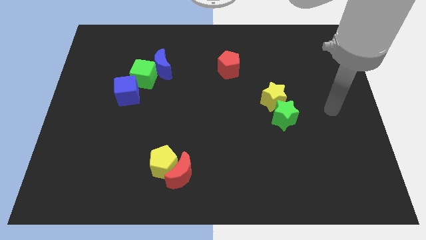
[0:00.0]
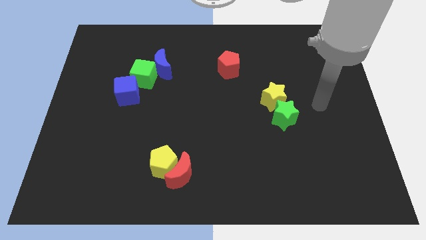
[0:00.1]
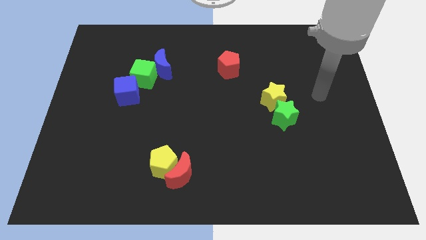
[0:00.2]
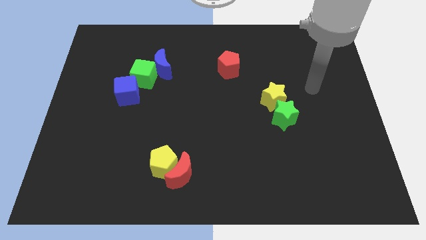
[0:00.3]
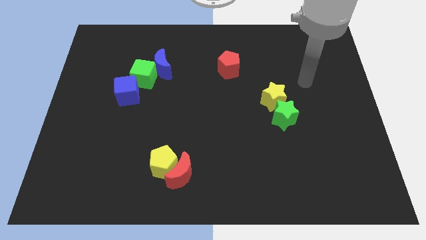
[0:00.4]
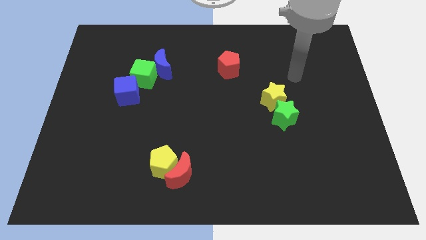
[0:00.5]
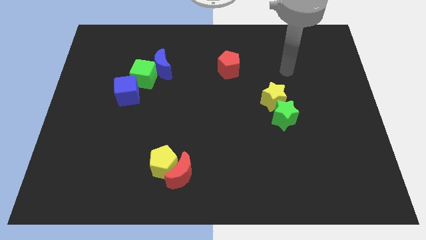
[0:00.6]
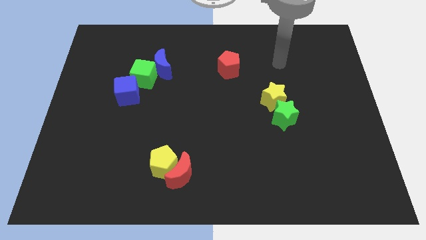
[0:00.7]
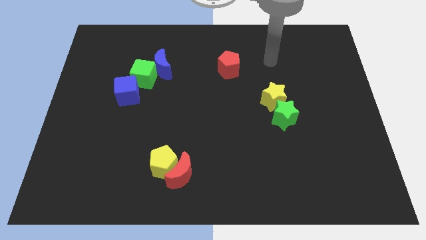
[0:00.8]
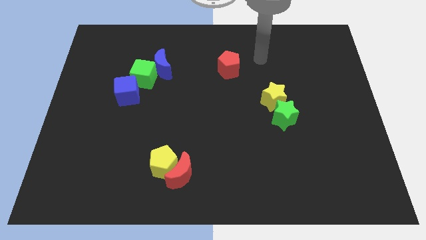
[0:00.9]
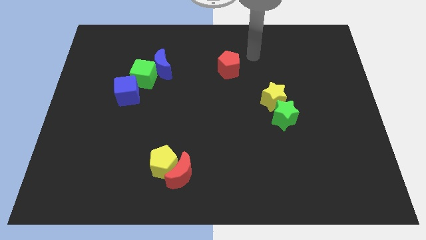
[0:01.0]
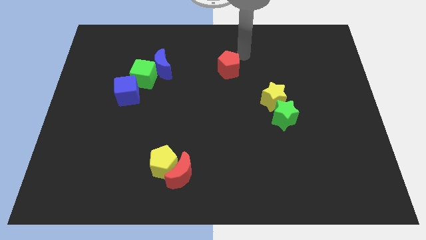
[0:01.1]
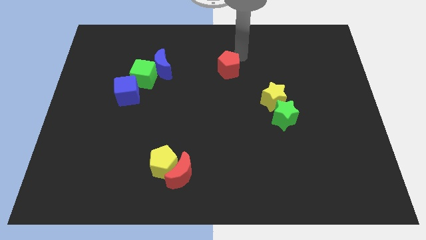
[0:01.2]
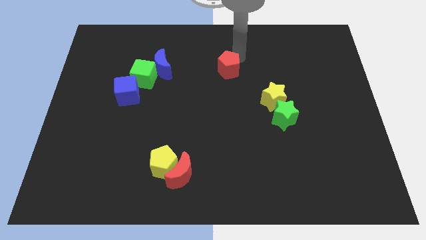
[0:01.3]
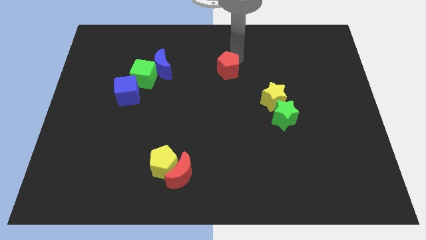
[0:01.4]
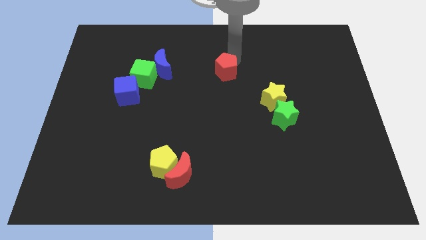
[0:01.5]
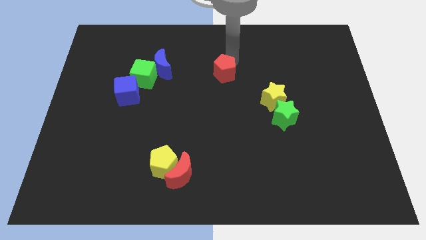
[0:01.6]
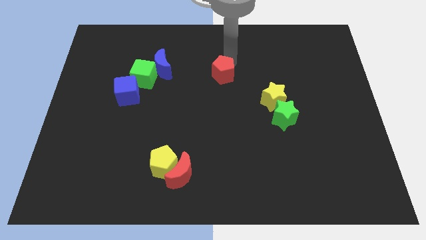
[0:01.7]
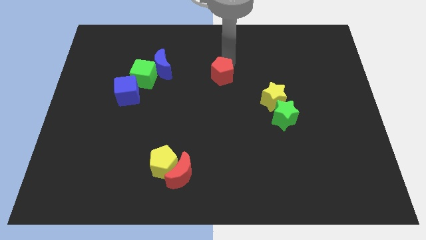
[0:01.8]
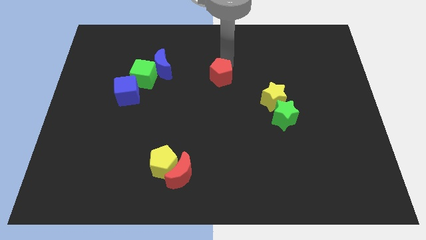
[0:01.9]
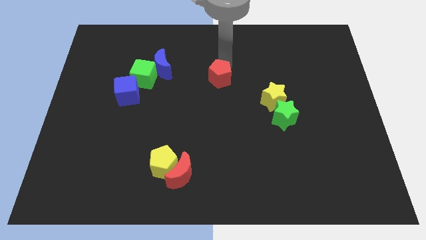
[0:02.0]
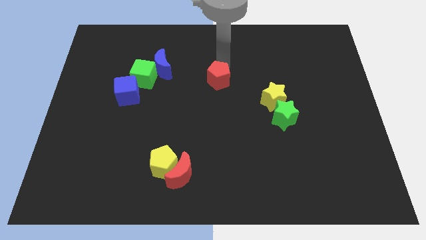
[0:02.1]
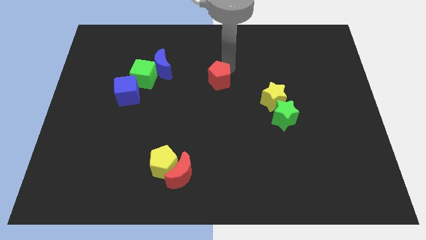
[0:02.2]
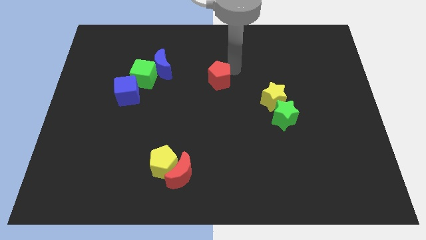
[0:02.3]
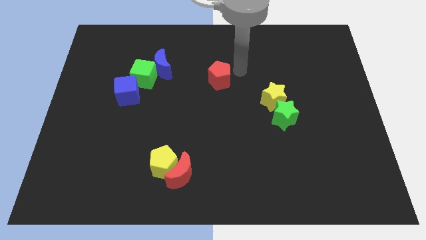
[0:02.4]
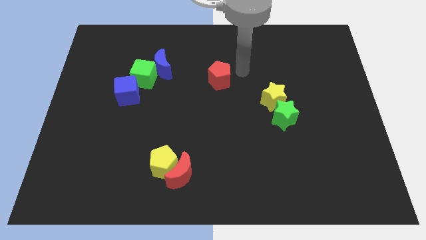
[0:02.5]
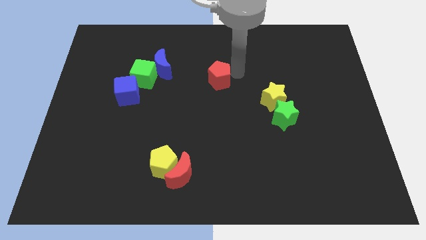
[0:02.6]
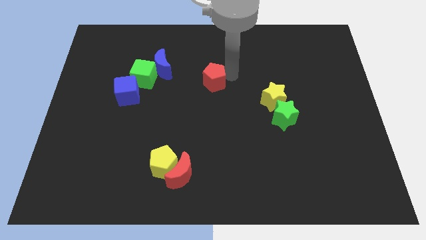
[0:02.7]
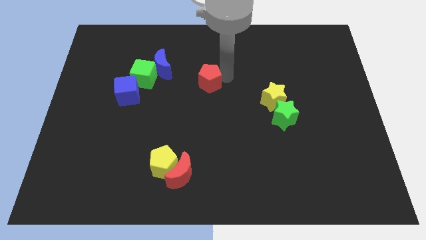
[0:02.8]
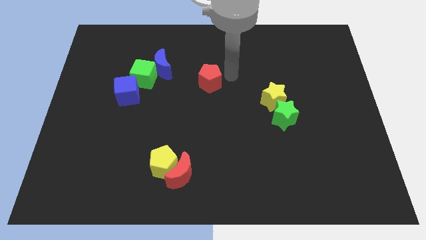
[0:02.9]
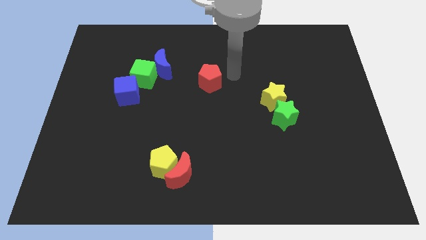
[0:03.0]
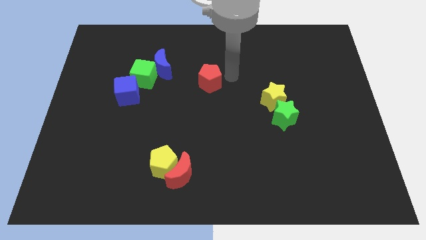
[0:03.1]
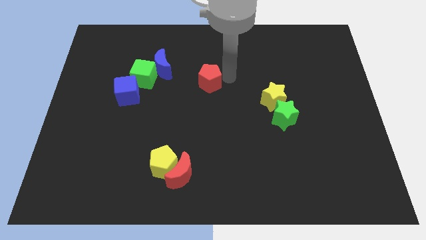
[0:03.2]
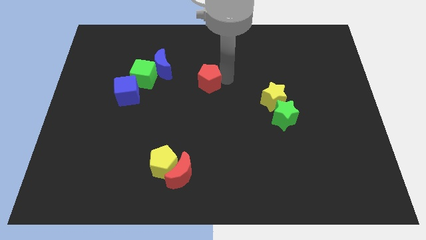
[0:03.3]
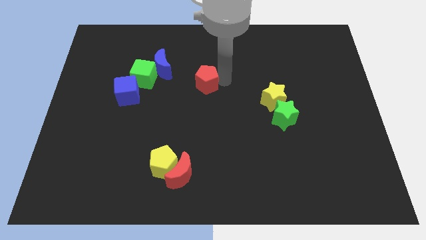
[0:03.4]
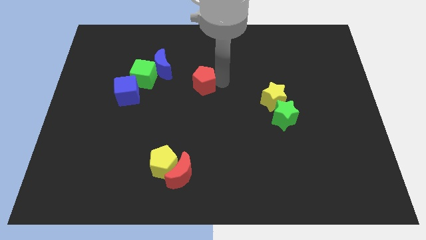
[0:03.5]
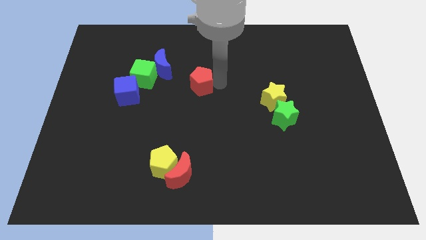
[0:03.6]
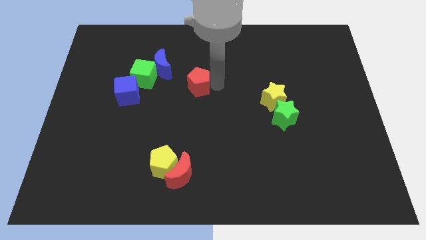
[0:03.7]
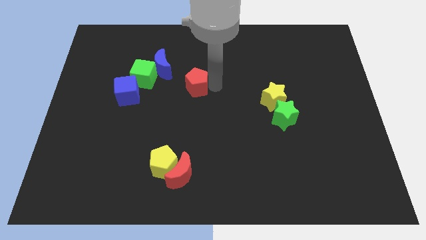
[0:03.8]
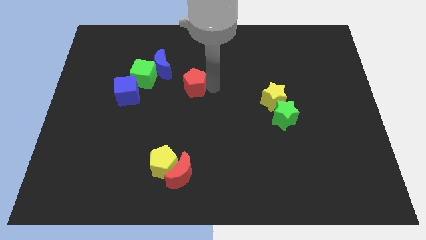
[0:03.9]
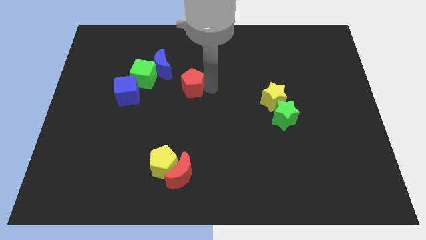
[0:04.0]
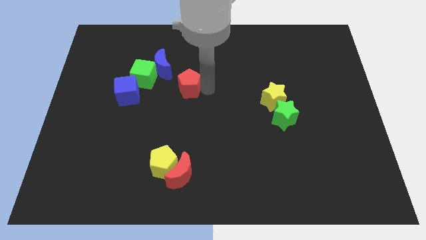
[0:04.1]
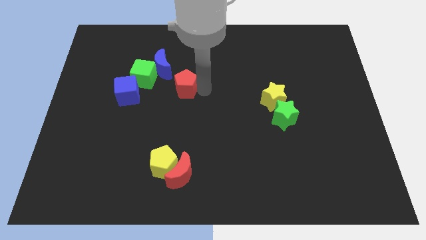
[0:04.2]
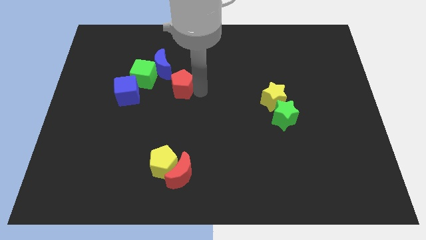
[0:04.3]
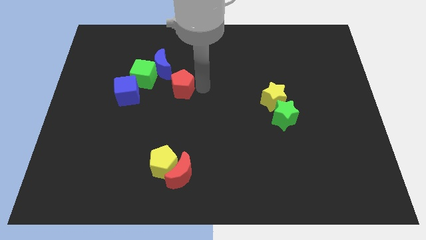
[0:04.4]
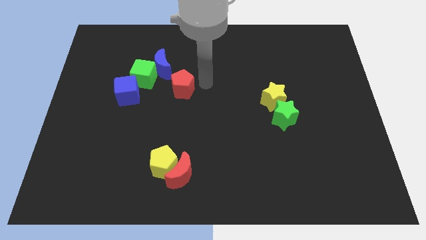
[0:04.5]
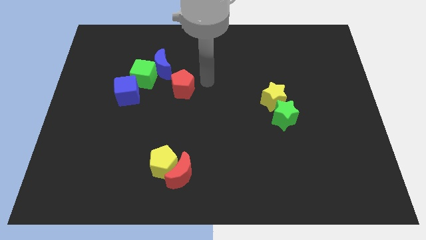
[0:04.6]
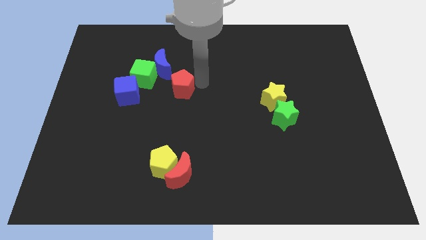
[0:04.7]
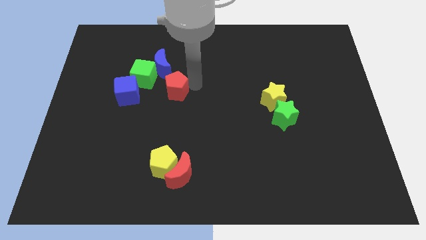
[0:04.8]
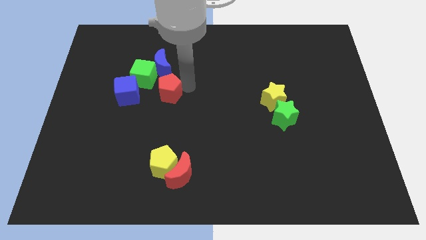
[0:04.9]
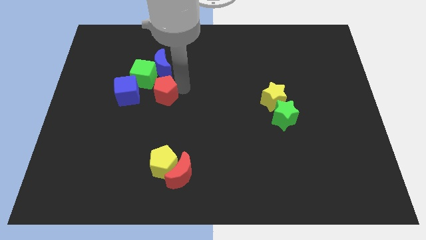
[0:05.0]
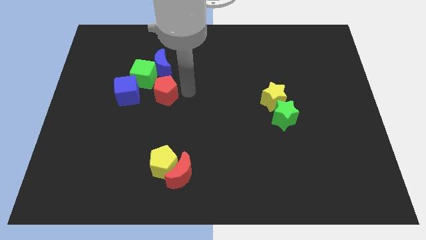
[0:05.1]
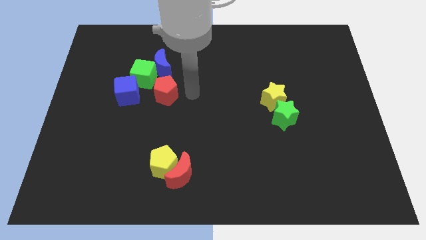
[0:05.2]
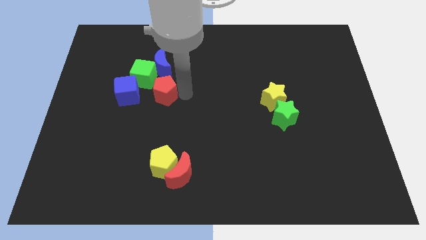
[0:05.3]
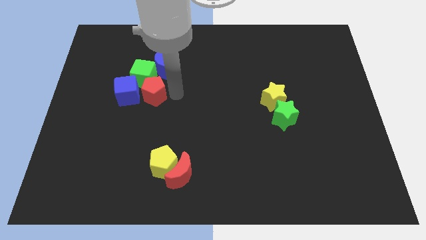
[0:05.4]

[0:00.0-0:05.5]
push the red pentagon towards the blue cube
